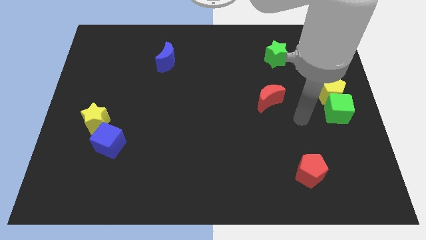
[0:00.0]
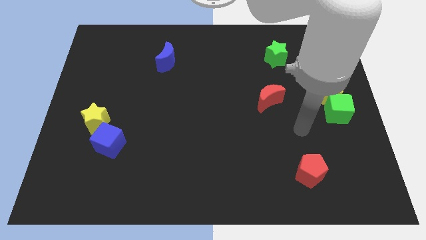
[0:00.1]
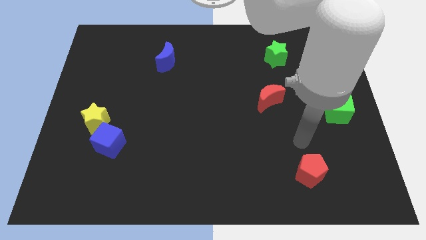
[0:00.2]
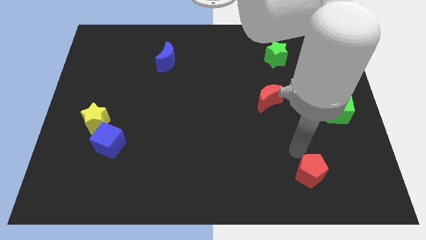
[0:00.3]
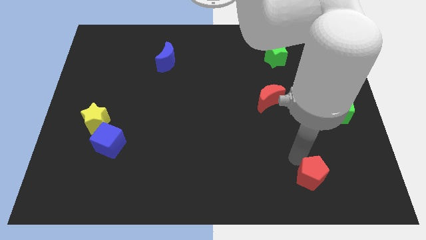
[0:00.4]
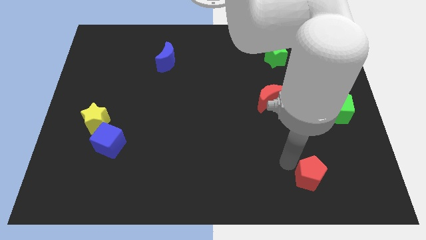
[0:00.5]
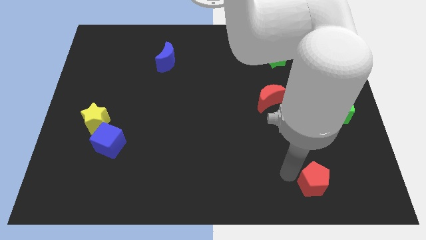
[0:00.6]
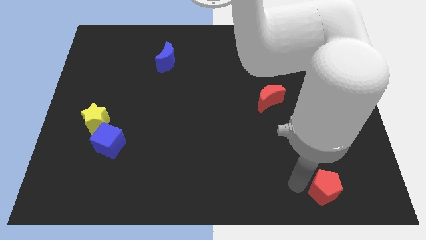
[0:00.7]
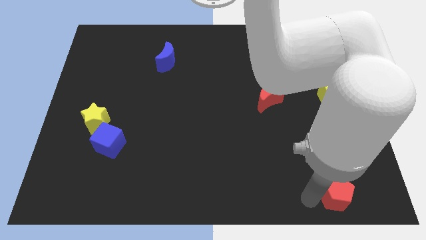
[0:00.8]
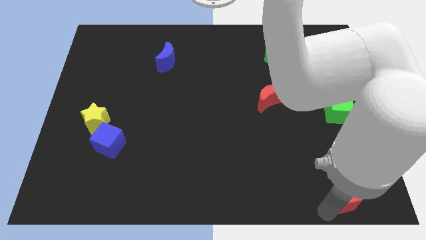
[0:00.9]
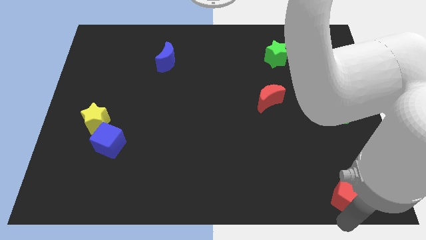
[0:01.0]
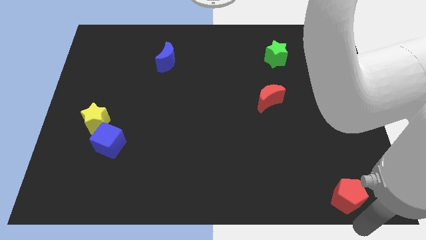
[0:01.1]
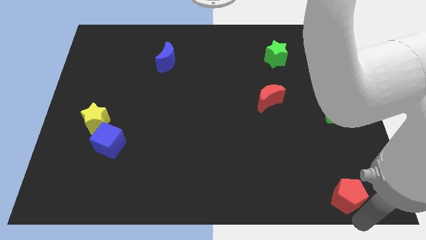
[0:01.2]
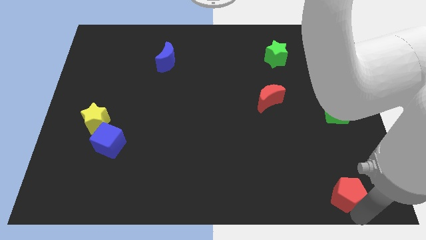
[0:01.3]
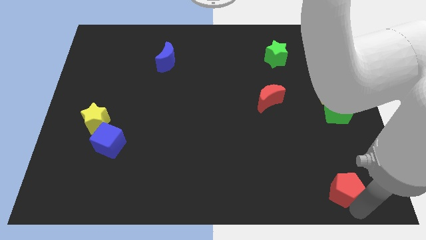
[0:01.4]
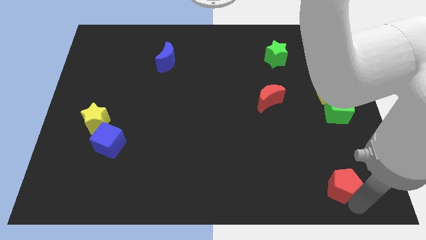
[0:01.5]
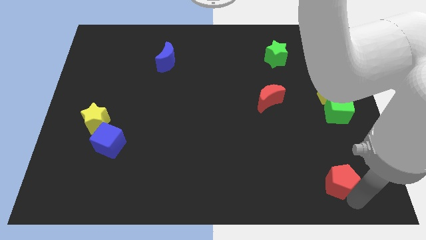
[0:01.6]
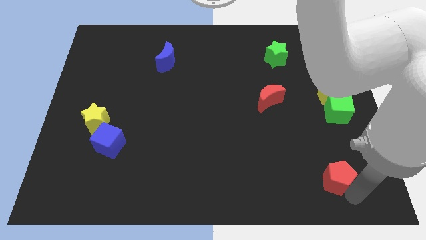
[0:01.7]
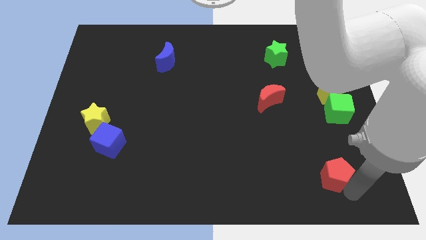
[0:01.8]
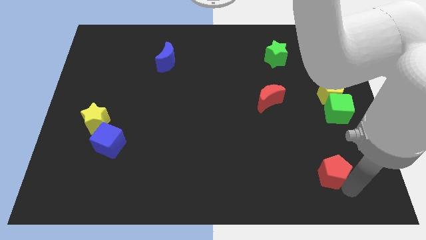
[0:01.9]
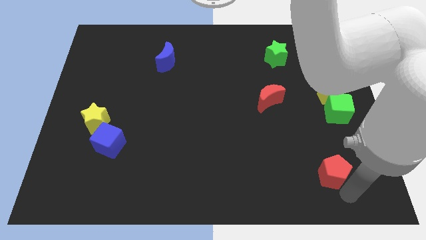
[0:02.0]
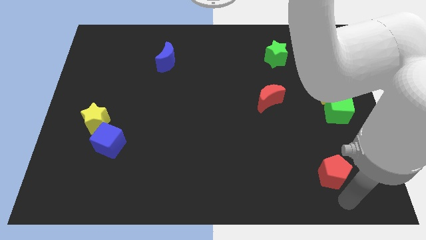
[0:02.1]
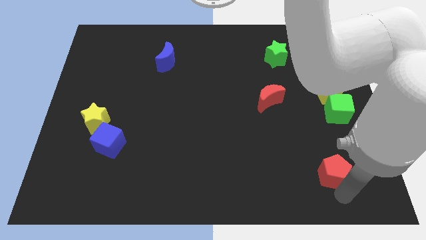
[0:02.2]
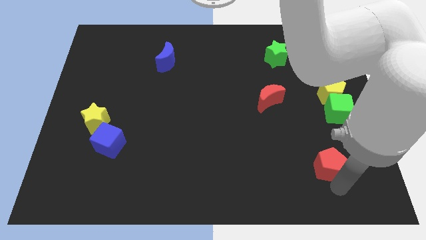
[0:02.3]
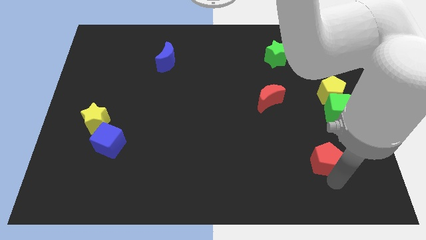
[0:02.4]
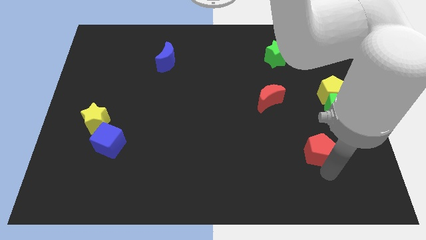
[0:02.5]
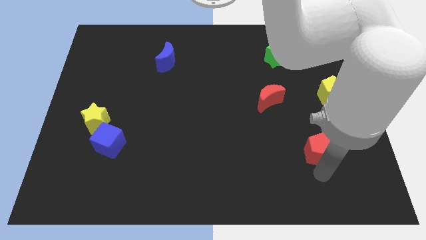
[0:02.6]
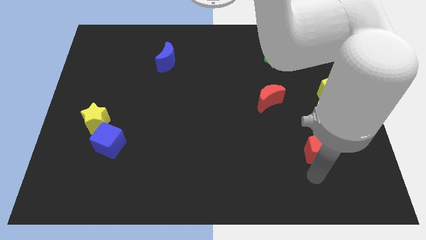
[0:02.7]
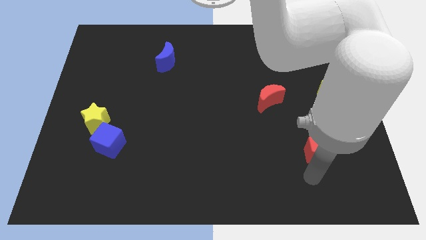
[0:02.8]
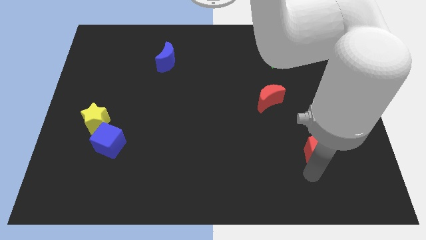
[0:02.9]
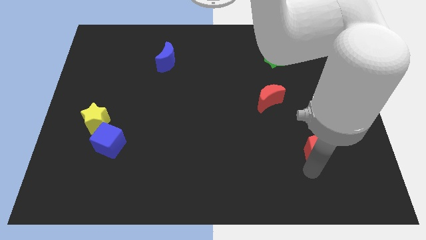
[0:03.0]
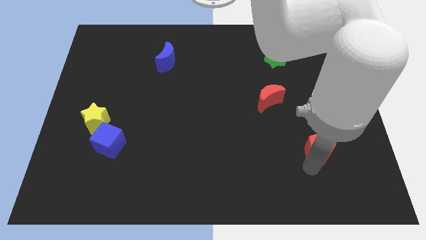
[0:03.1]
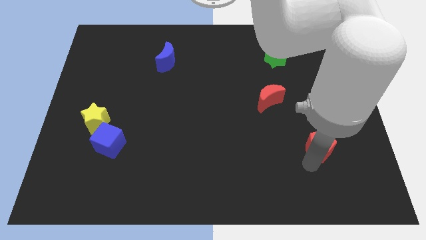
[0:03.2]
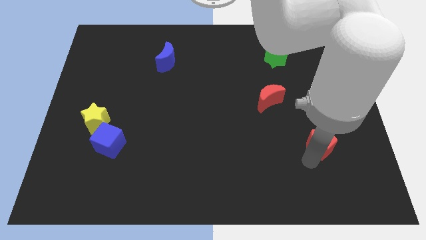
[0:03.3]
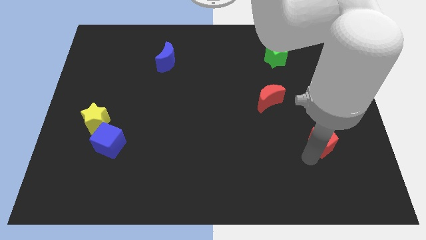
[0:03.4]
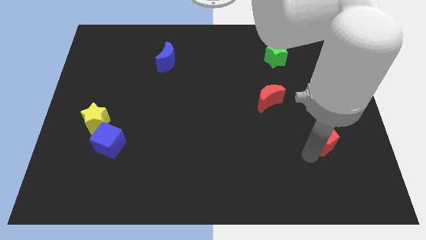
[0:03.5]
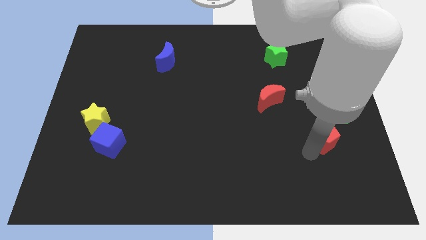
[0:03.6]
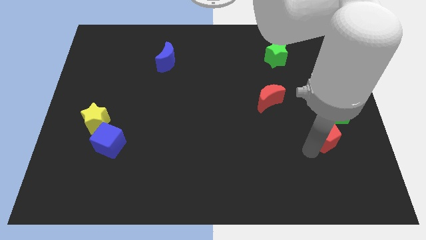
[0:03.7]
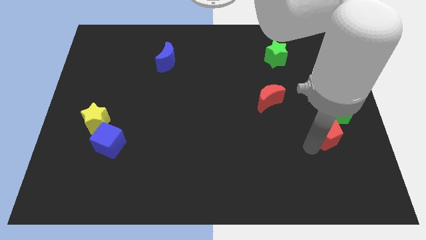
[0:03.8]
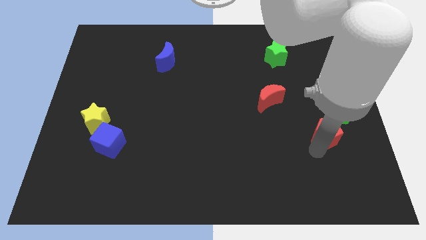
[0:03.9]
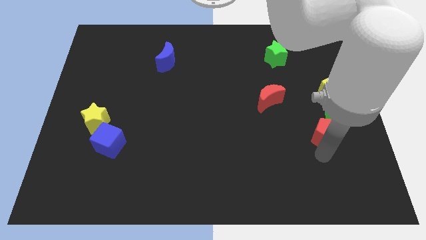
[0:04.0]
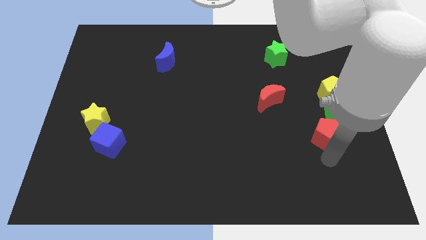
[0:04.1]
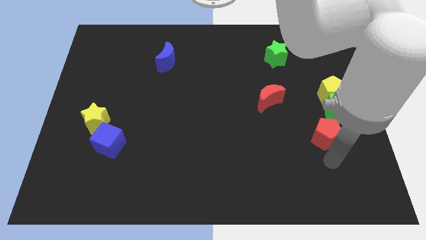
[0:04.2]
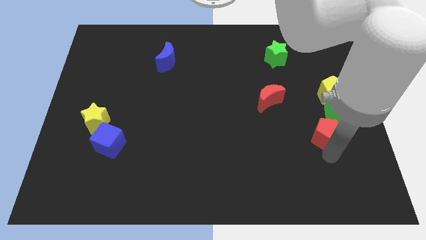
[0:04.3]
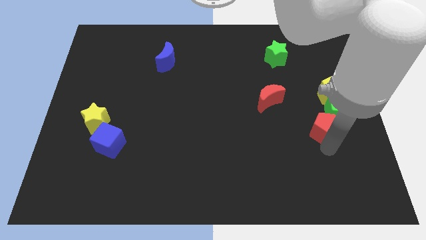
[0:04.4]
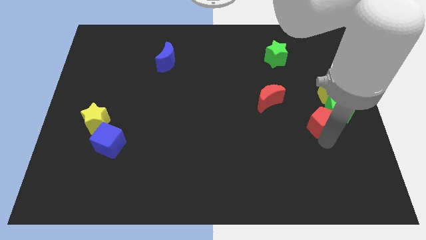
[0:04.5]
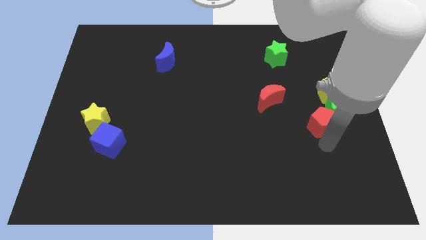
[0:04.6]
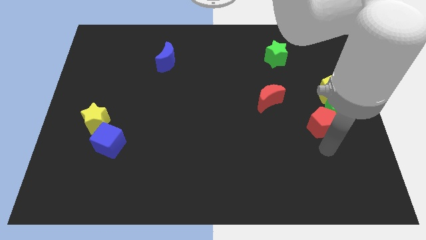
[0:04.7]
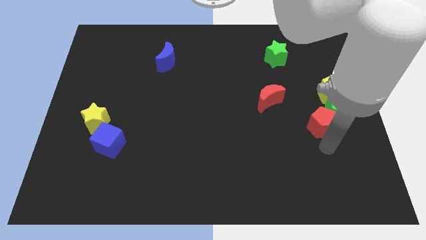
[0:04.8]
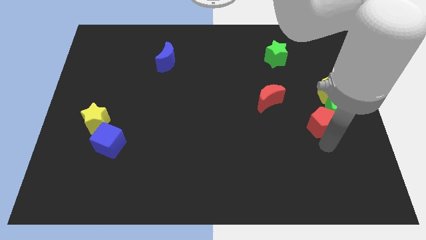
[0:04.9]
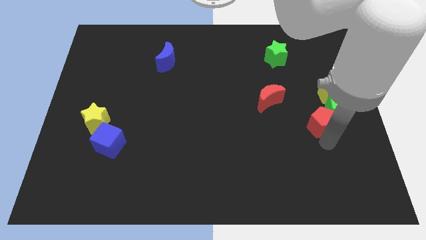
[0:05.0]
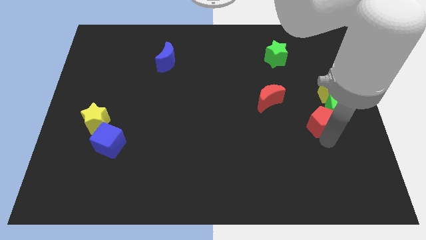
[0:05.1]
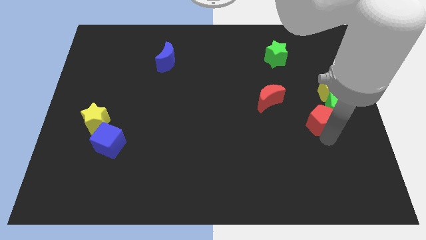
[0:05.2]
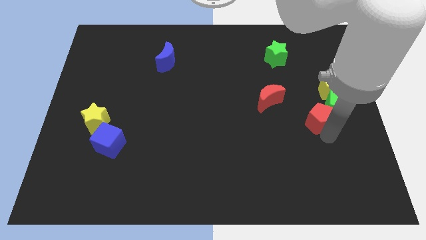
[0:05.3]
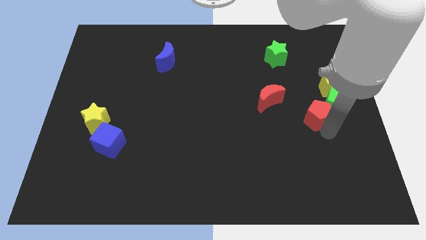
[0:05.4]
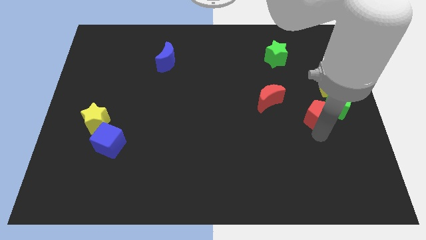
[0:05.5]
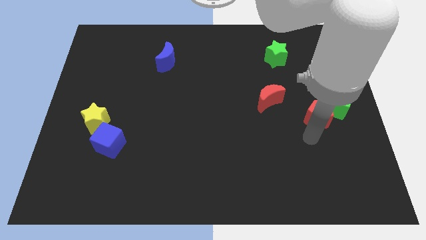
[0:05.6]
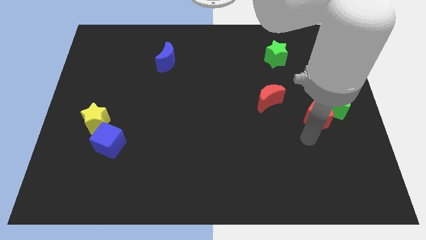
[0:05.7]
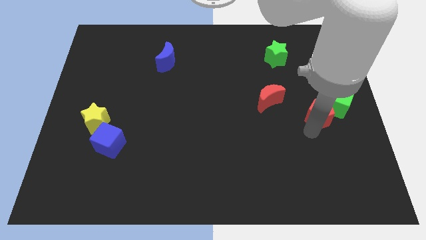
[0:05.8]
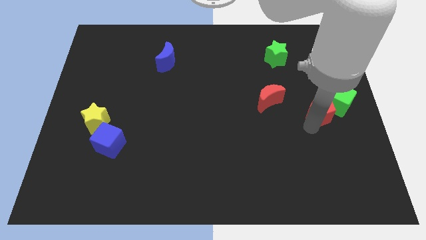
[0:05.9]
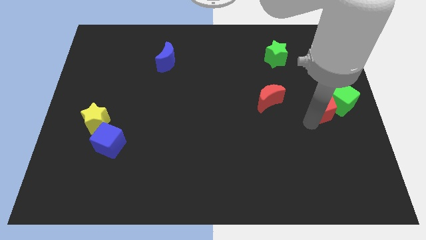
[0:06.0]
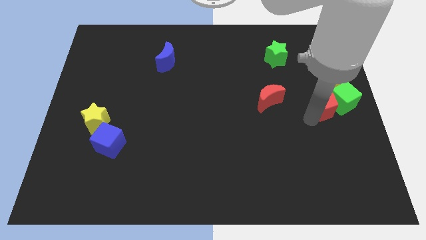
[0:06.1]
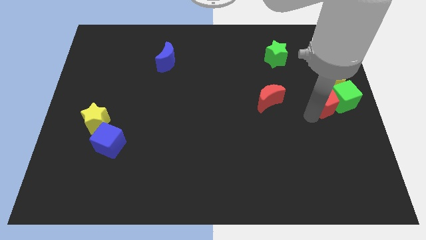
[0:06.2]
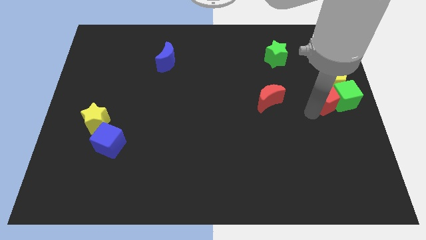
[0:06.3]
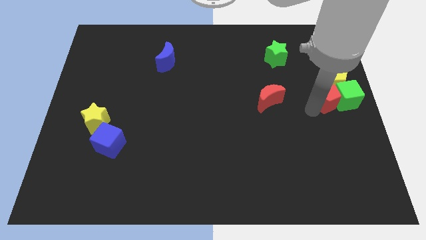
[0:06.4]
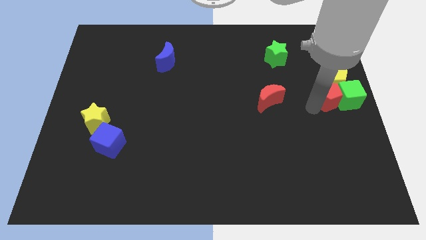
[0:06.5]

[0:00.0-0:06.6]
slide the red pentagon to the yellow pentagon

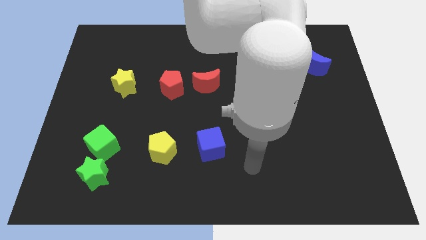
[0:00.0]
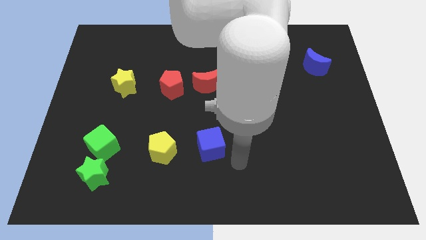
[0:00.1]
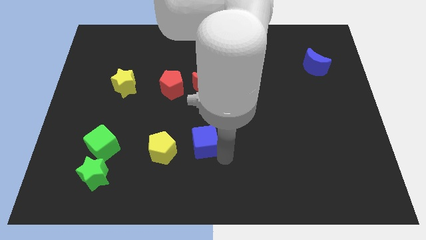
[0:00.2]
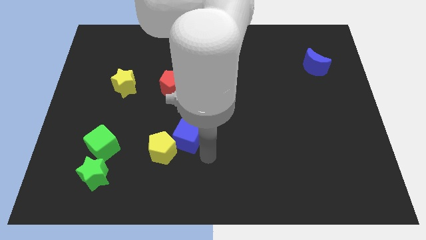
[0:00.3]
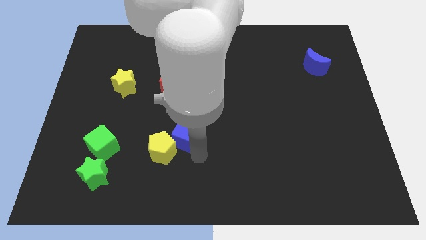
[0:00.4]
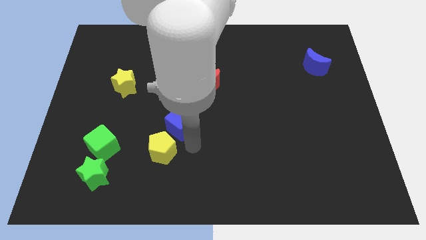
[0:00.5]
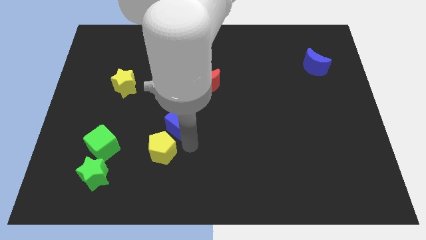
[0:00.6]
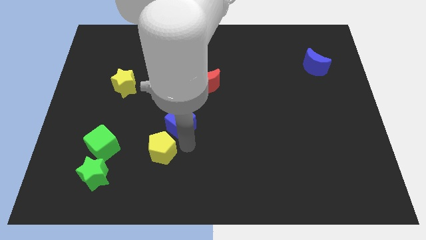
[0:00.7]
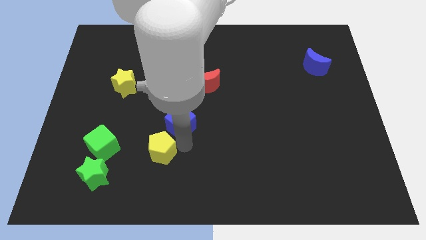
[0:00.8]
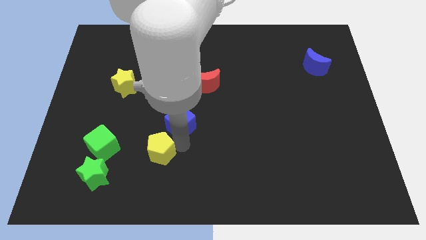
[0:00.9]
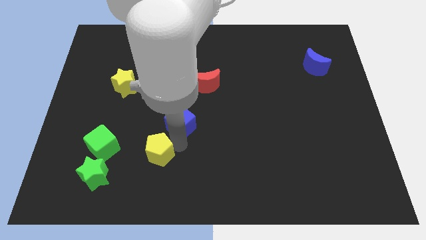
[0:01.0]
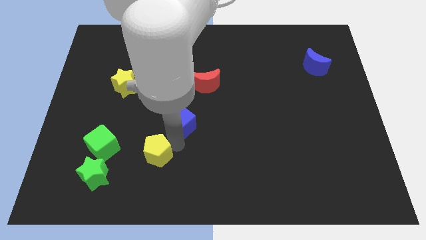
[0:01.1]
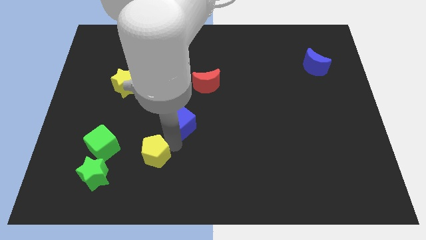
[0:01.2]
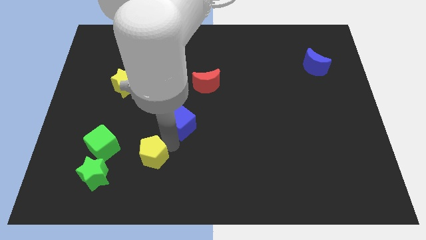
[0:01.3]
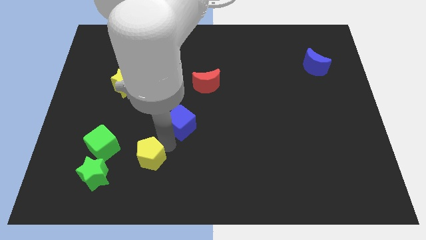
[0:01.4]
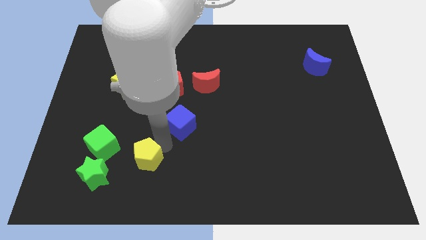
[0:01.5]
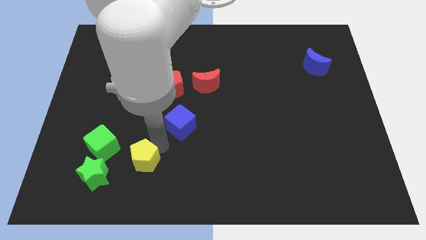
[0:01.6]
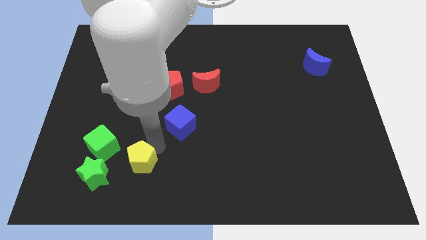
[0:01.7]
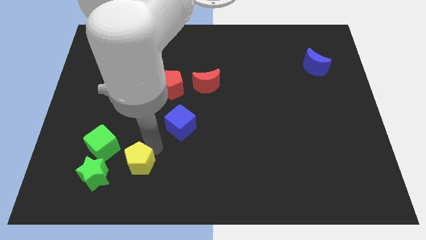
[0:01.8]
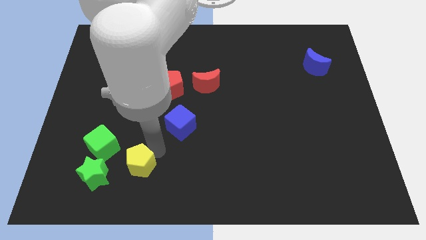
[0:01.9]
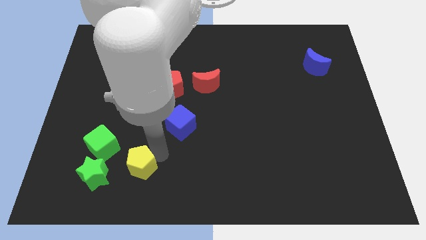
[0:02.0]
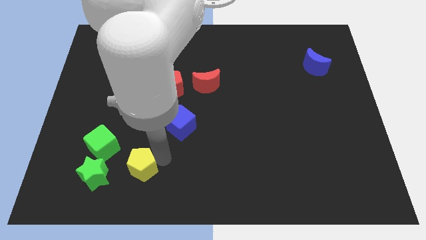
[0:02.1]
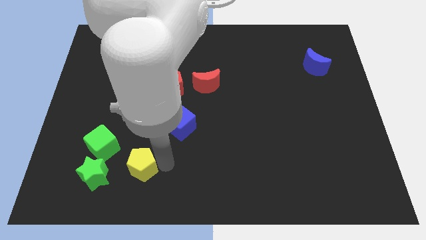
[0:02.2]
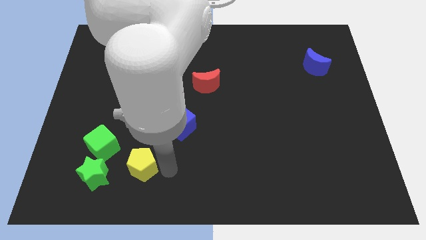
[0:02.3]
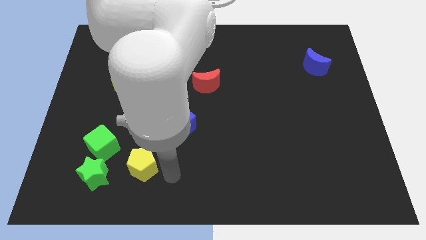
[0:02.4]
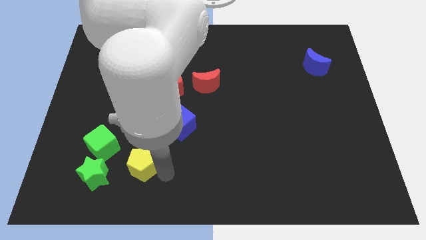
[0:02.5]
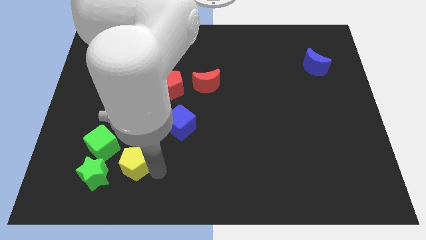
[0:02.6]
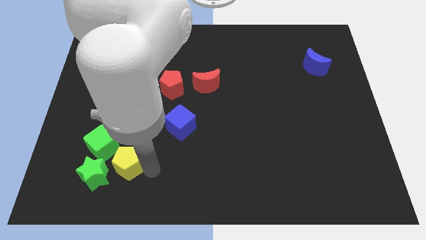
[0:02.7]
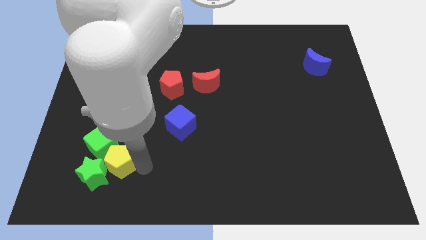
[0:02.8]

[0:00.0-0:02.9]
put the yellow pentagon to the green star
